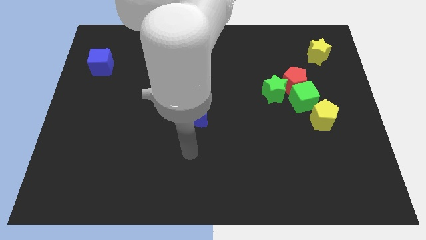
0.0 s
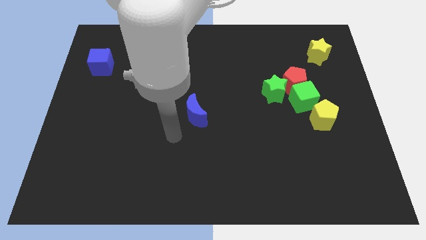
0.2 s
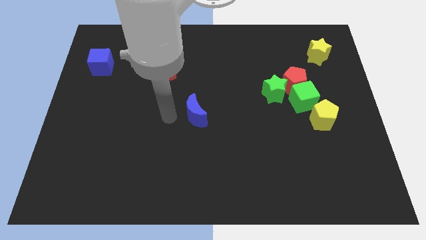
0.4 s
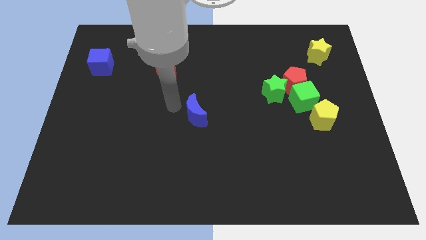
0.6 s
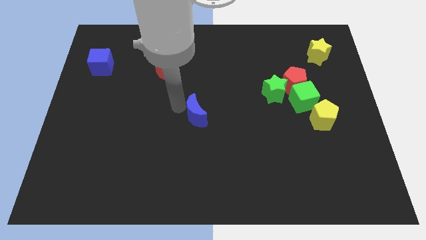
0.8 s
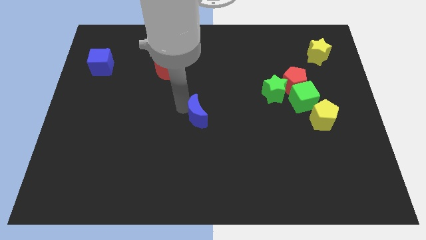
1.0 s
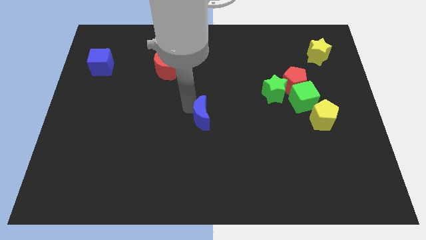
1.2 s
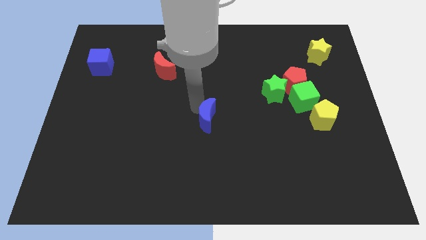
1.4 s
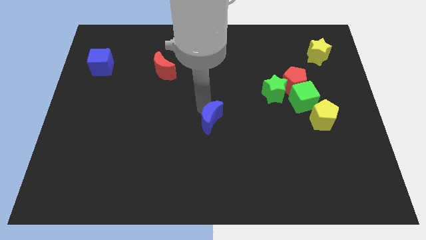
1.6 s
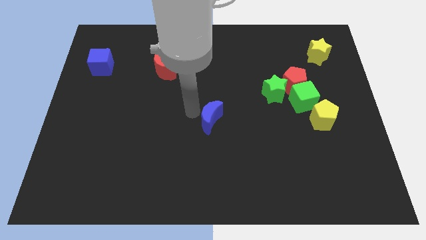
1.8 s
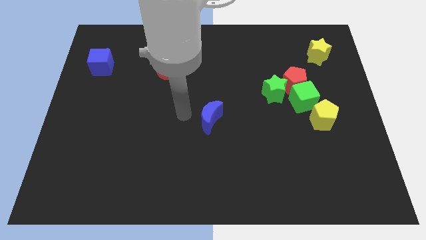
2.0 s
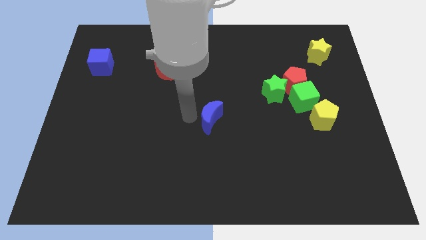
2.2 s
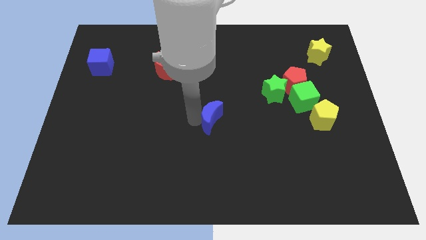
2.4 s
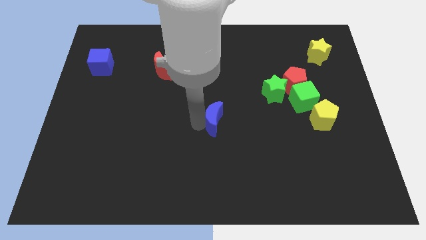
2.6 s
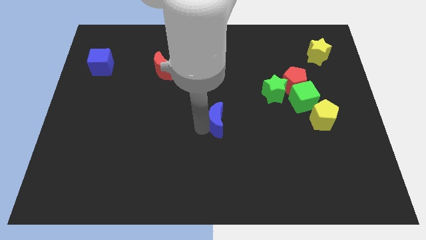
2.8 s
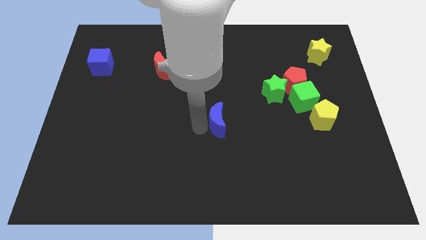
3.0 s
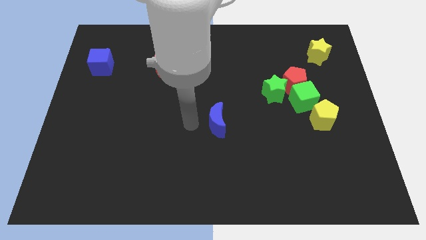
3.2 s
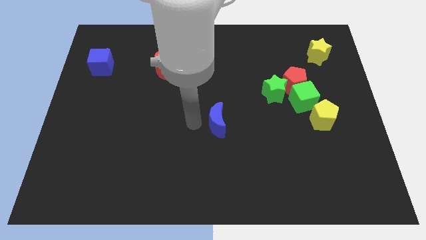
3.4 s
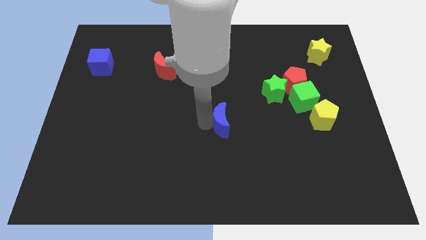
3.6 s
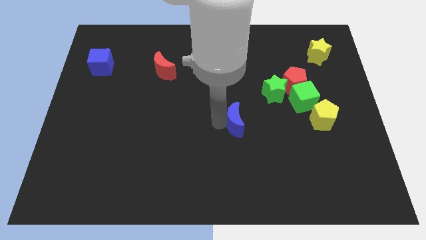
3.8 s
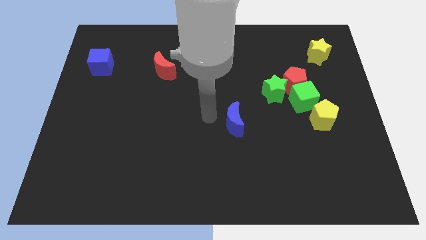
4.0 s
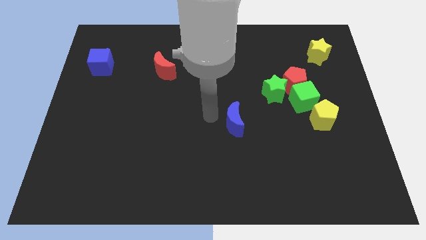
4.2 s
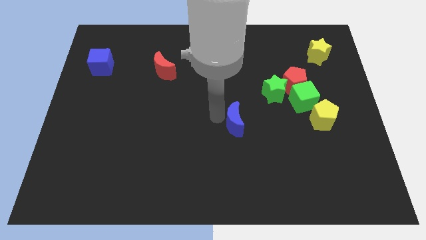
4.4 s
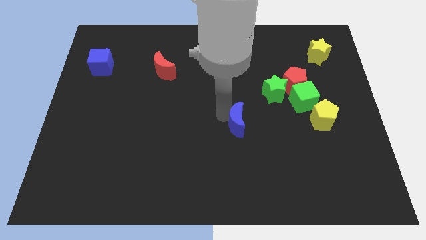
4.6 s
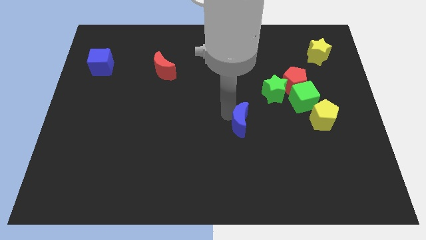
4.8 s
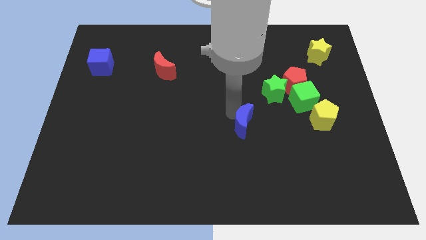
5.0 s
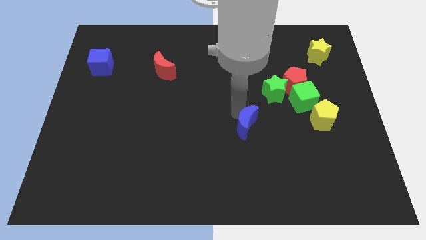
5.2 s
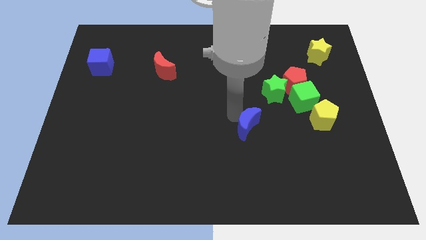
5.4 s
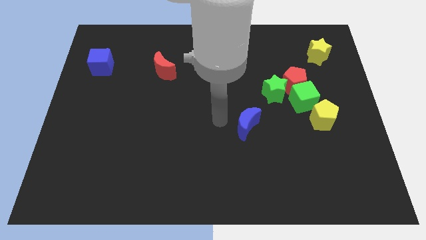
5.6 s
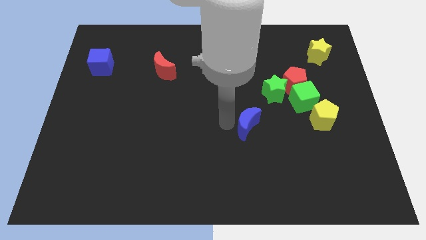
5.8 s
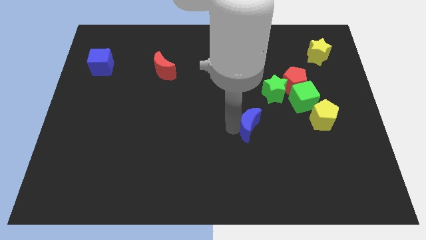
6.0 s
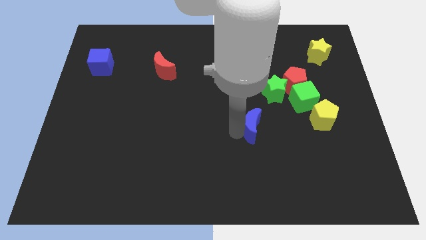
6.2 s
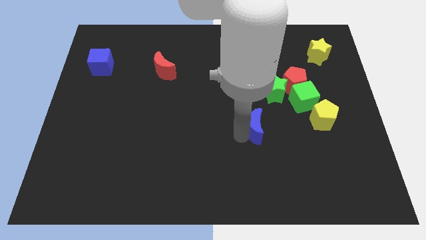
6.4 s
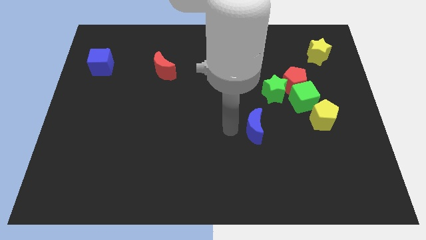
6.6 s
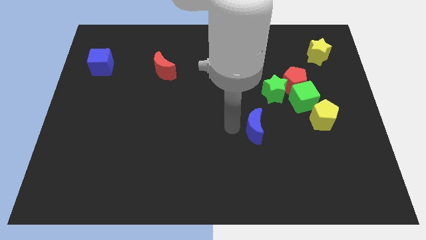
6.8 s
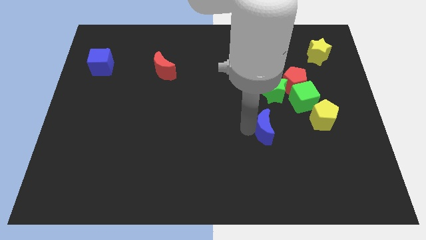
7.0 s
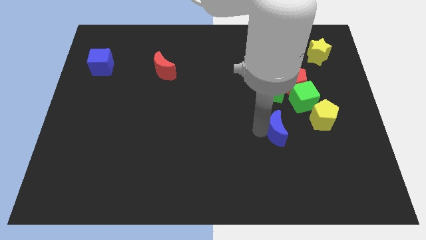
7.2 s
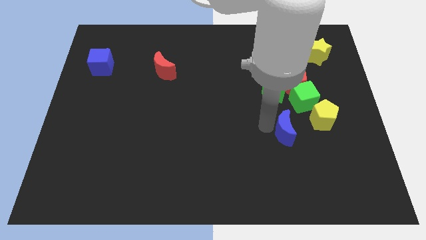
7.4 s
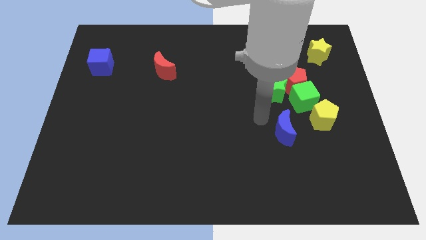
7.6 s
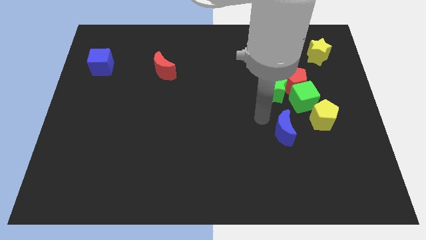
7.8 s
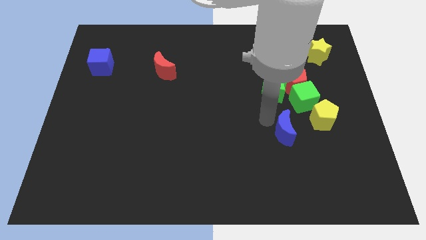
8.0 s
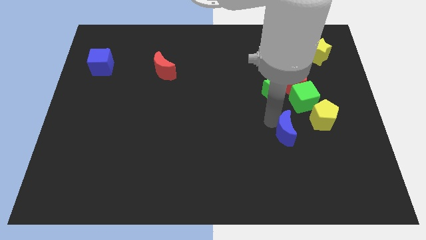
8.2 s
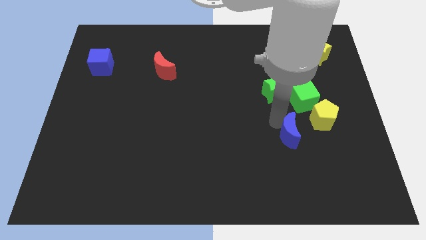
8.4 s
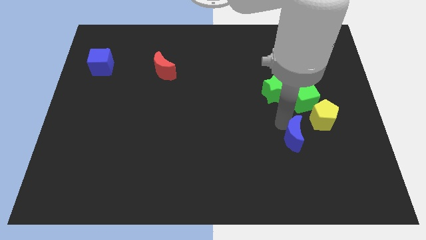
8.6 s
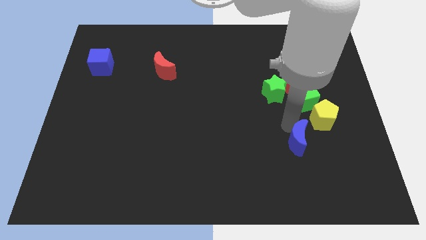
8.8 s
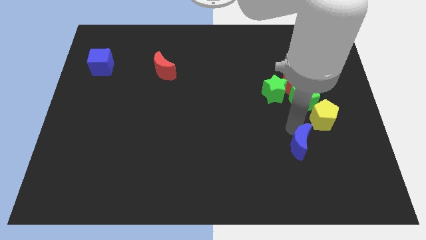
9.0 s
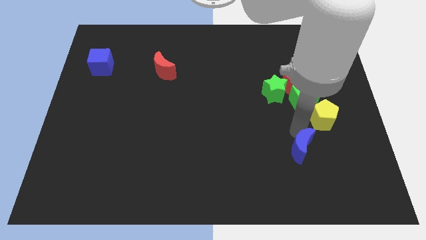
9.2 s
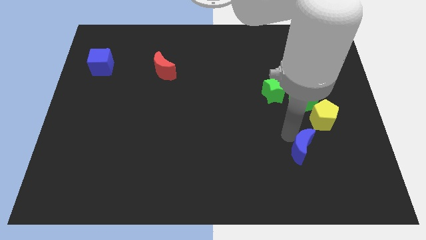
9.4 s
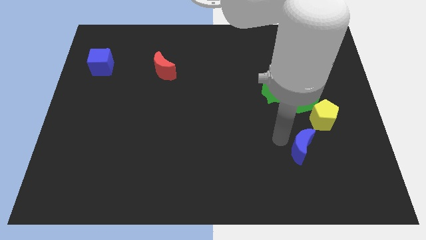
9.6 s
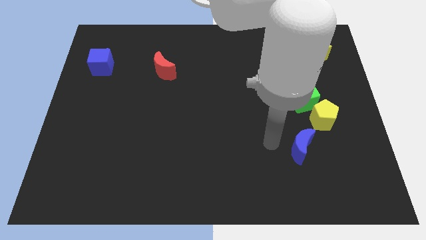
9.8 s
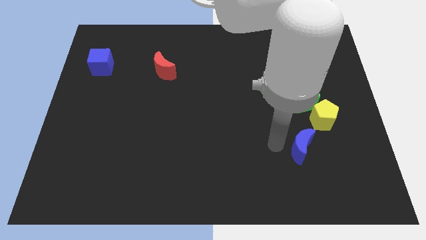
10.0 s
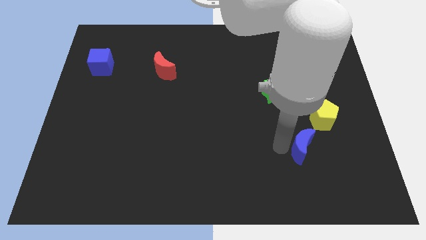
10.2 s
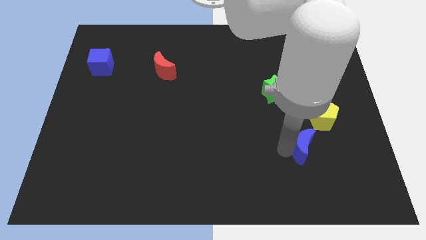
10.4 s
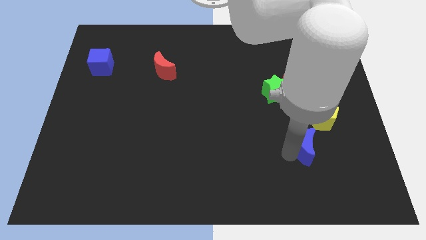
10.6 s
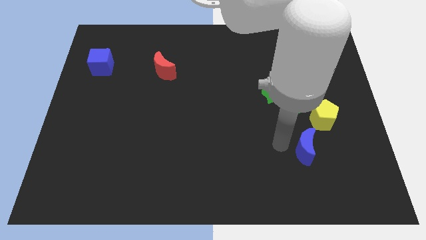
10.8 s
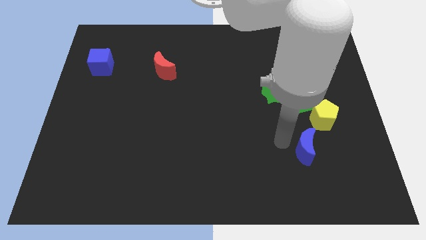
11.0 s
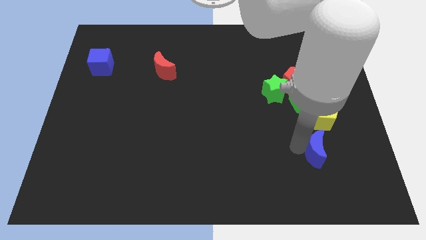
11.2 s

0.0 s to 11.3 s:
put the blue moon below the yellow pentagon

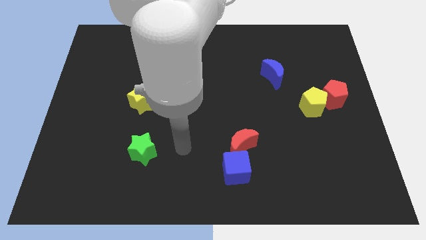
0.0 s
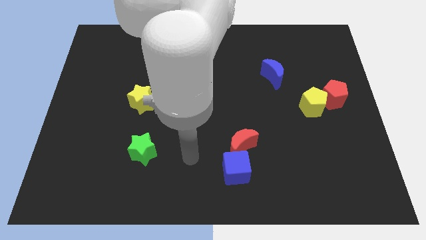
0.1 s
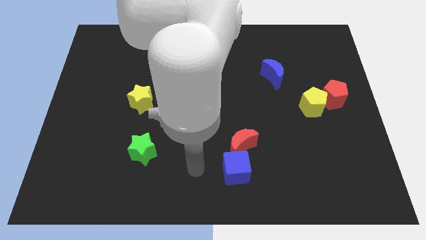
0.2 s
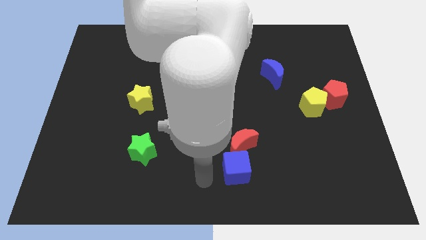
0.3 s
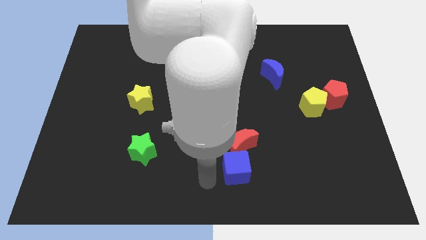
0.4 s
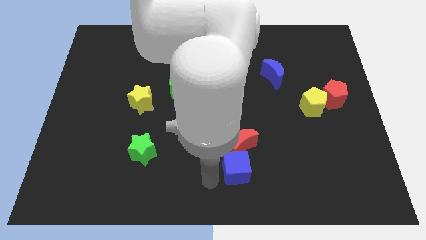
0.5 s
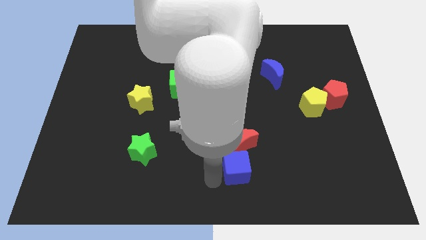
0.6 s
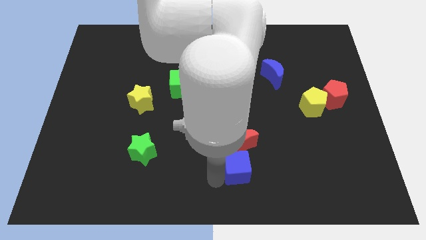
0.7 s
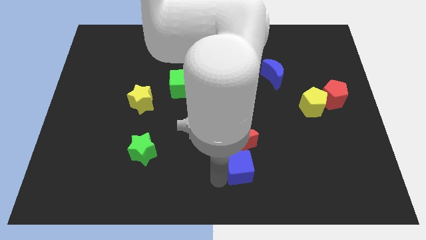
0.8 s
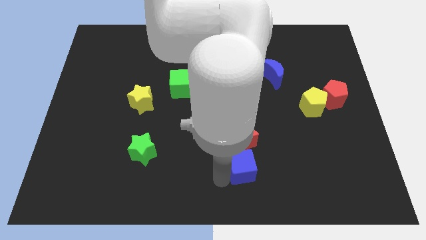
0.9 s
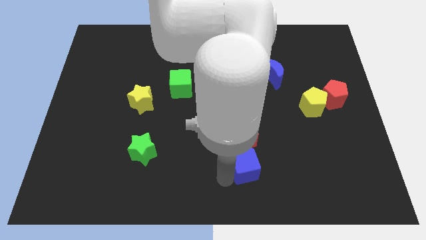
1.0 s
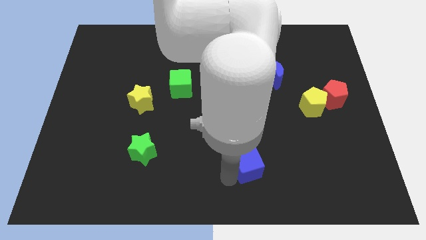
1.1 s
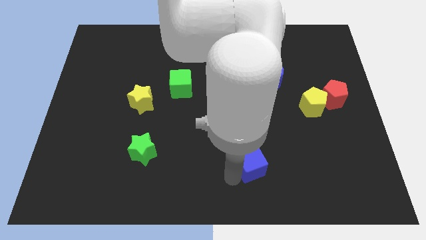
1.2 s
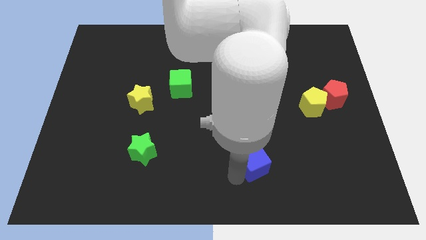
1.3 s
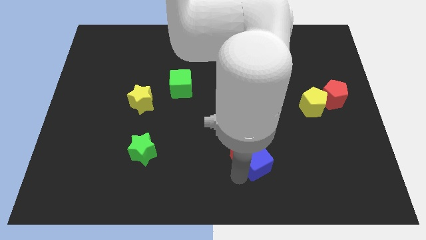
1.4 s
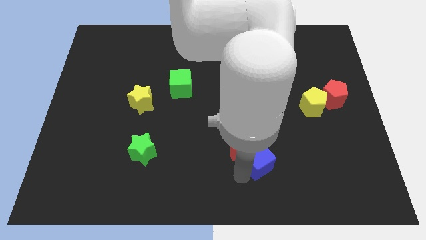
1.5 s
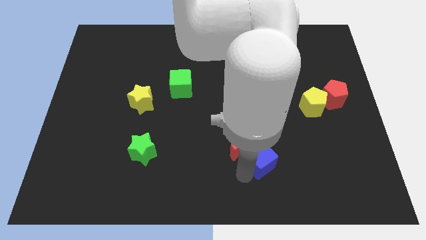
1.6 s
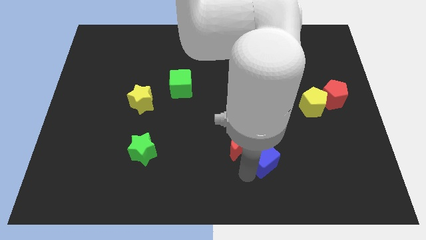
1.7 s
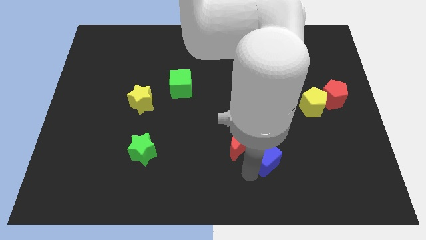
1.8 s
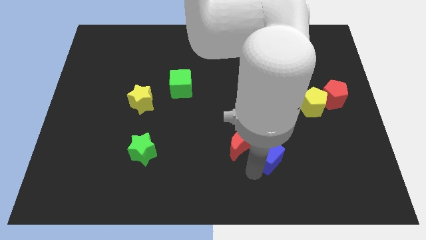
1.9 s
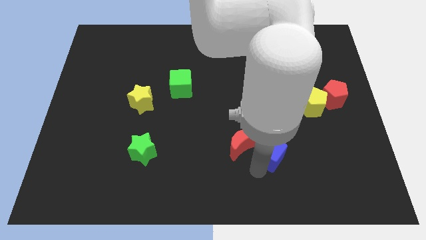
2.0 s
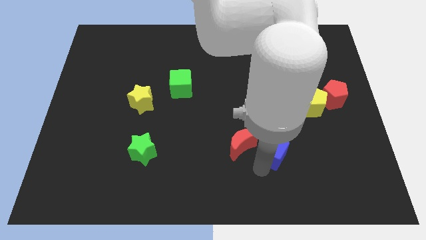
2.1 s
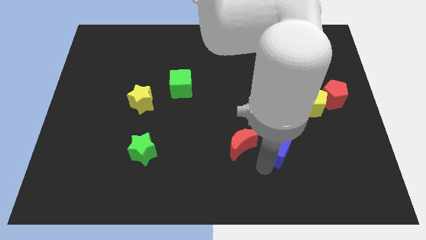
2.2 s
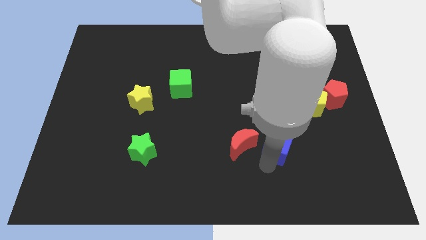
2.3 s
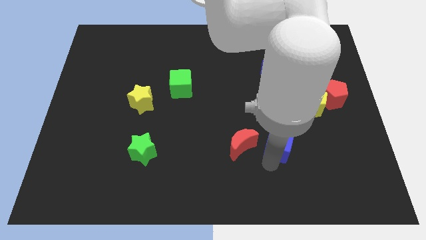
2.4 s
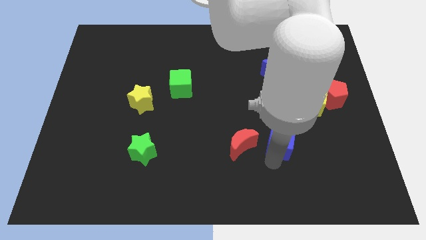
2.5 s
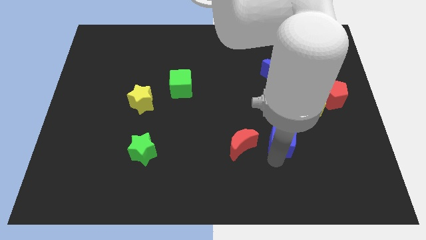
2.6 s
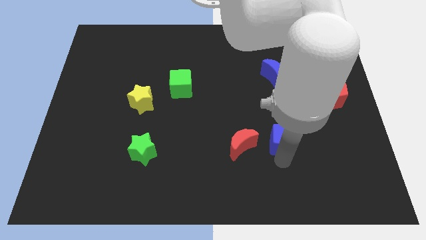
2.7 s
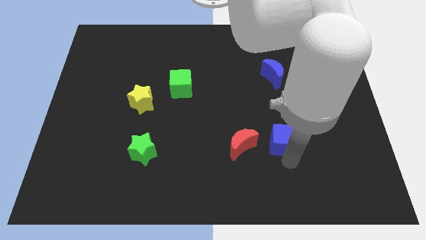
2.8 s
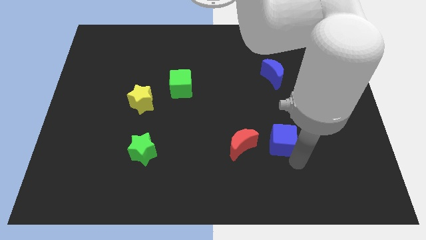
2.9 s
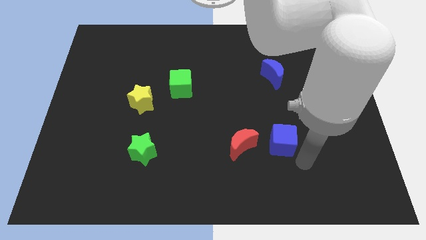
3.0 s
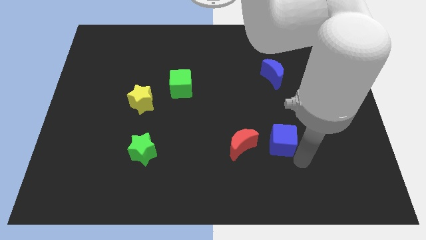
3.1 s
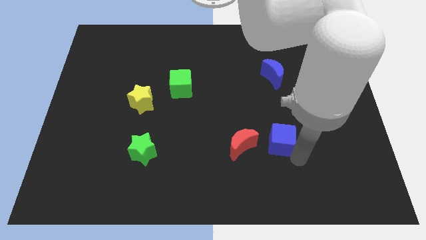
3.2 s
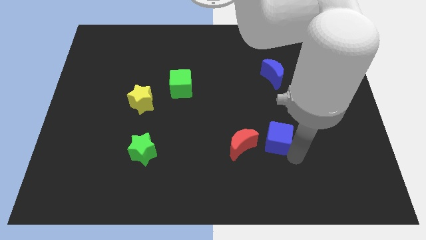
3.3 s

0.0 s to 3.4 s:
put the blue cube to the top right of the red moon
